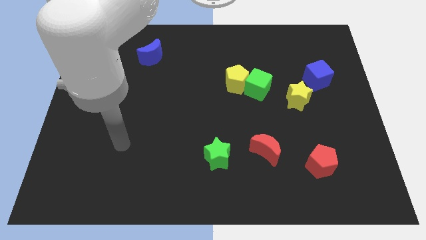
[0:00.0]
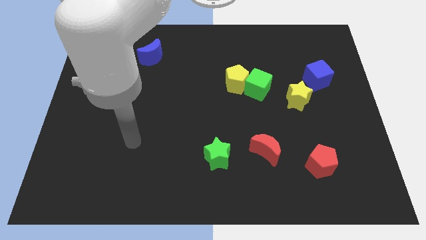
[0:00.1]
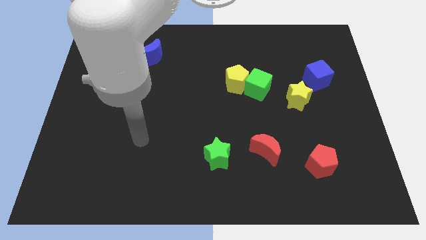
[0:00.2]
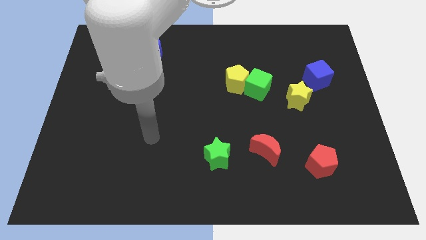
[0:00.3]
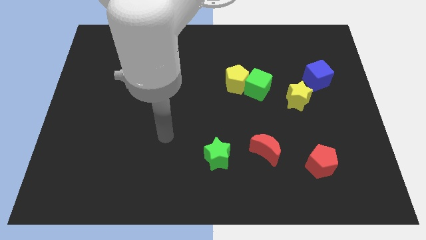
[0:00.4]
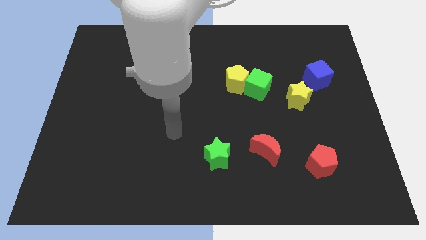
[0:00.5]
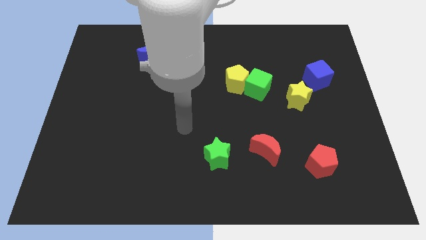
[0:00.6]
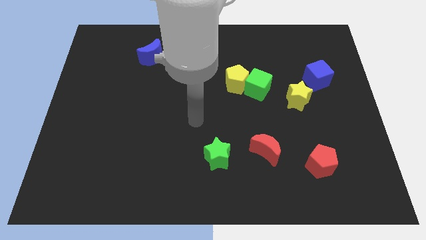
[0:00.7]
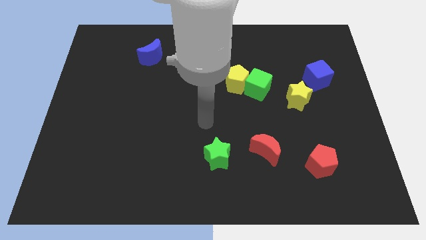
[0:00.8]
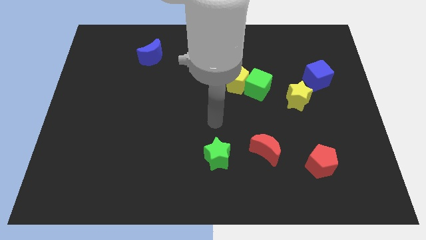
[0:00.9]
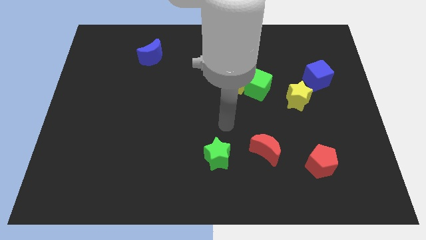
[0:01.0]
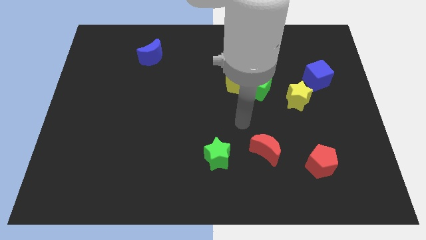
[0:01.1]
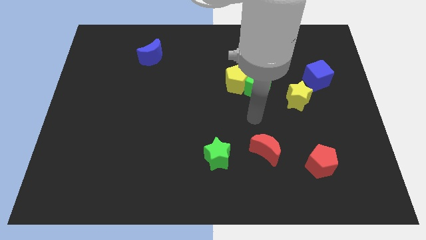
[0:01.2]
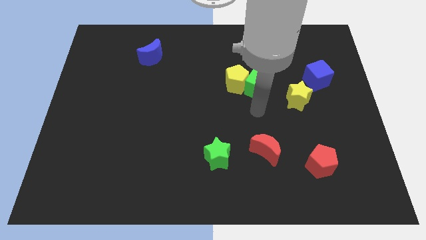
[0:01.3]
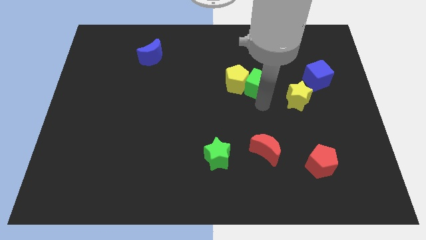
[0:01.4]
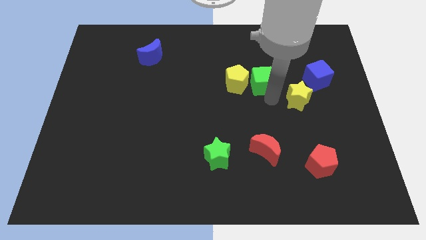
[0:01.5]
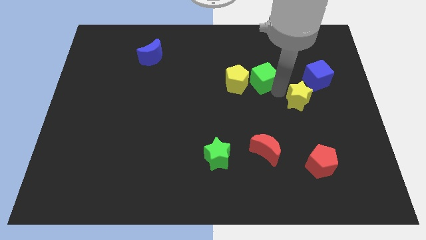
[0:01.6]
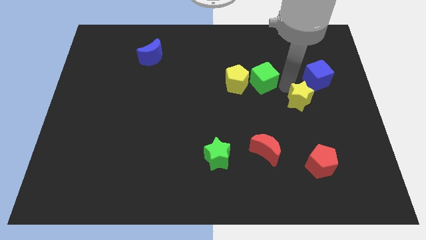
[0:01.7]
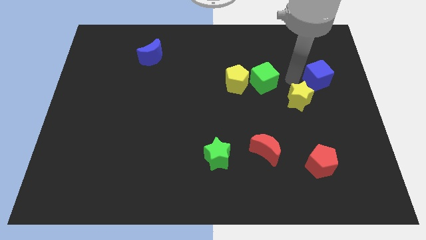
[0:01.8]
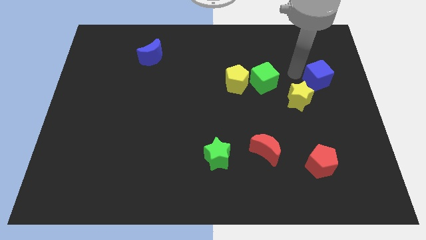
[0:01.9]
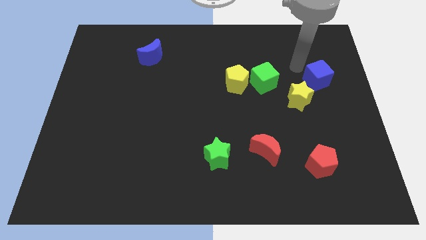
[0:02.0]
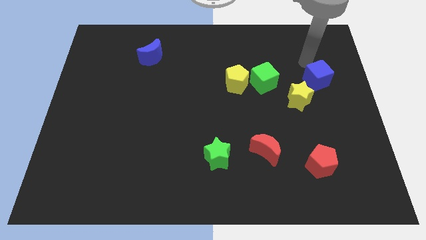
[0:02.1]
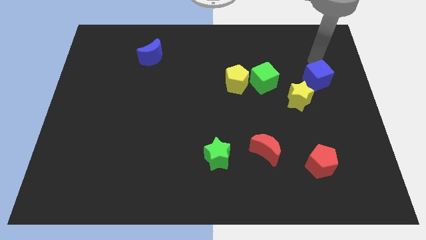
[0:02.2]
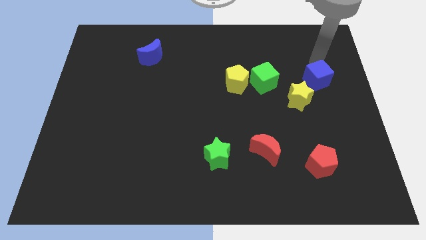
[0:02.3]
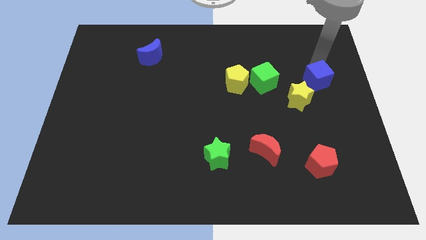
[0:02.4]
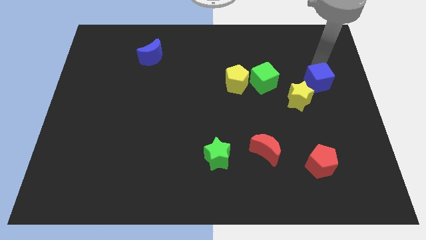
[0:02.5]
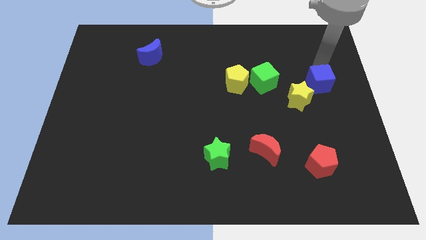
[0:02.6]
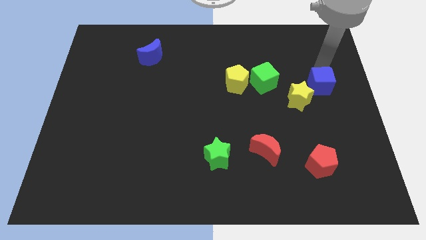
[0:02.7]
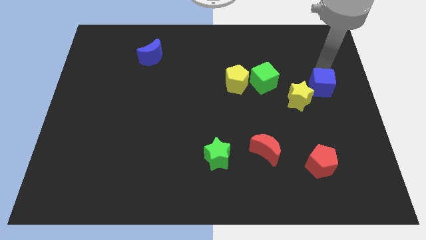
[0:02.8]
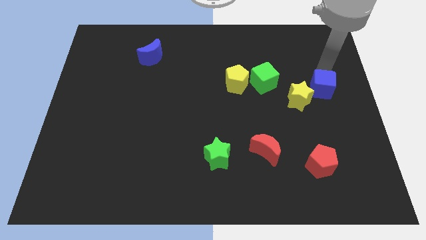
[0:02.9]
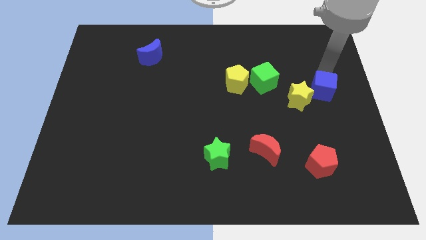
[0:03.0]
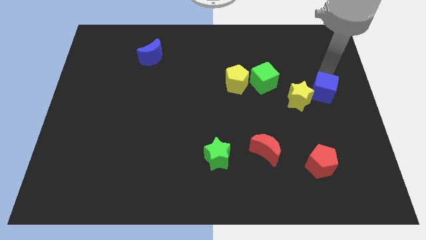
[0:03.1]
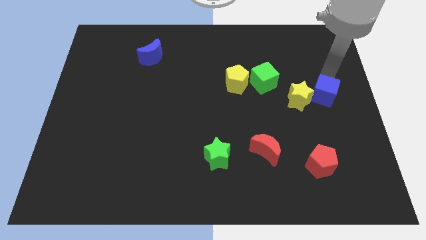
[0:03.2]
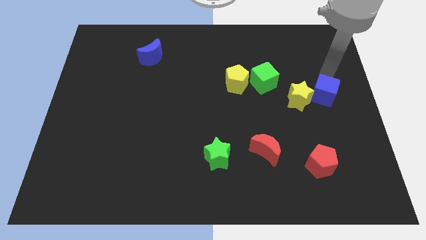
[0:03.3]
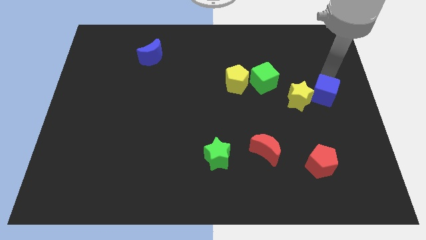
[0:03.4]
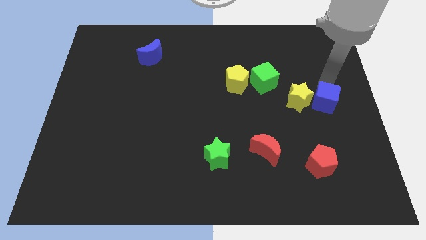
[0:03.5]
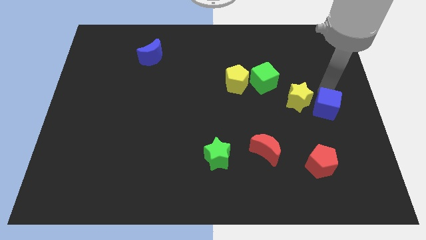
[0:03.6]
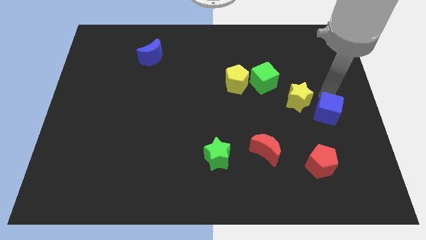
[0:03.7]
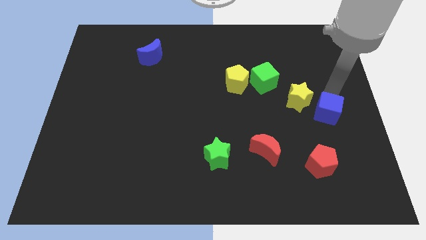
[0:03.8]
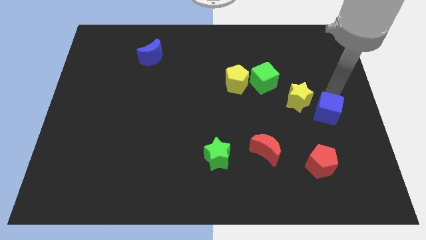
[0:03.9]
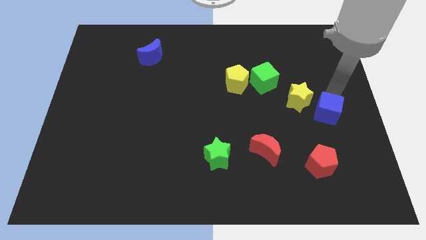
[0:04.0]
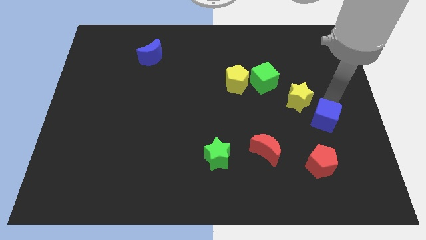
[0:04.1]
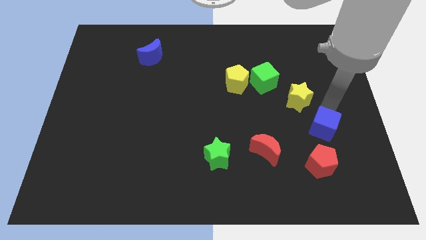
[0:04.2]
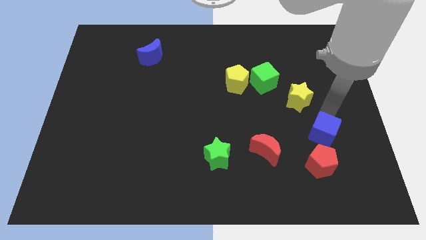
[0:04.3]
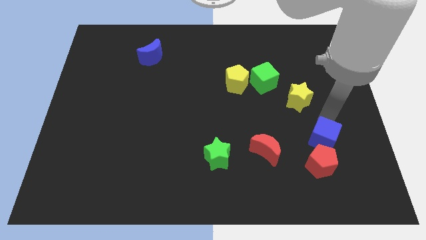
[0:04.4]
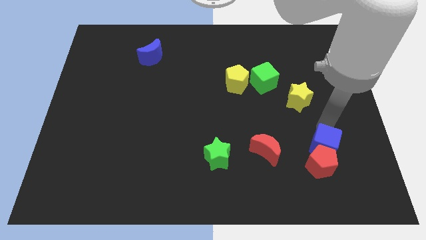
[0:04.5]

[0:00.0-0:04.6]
put the blue cube next to the red pentagon

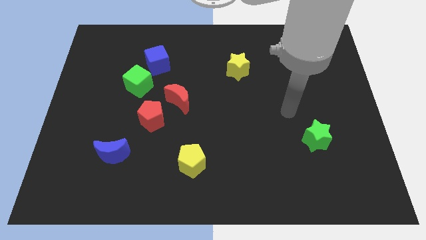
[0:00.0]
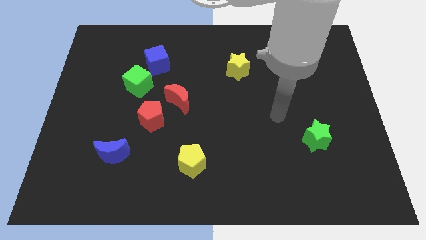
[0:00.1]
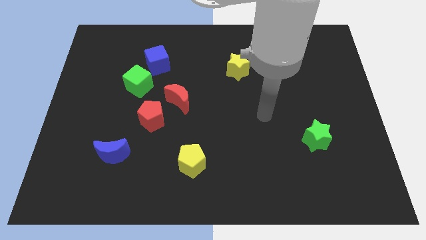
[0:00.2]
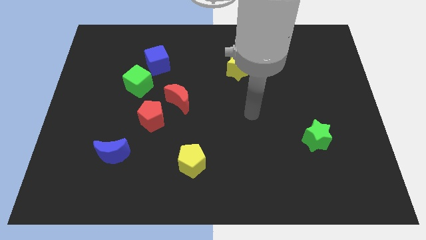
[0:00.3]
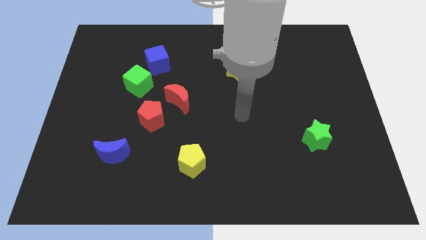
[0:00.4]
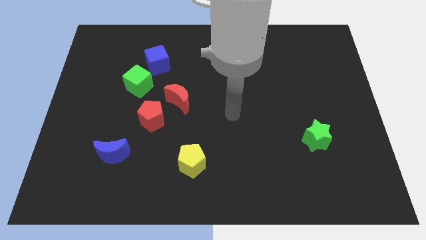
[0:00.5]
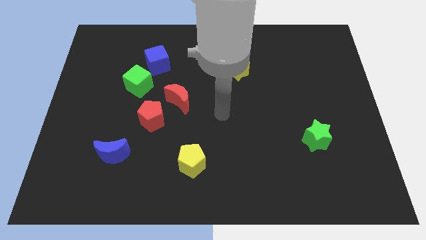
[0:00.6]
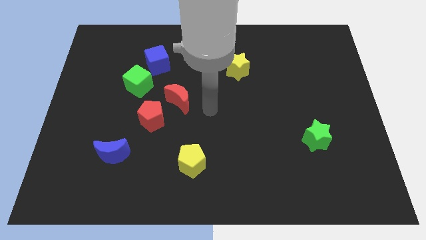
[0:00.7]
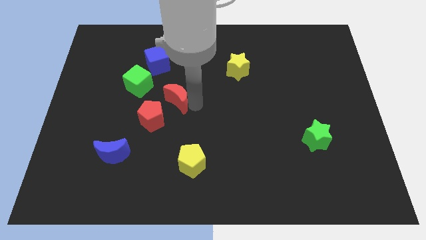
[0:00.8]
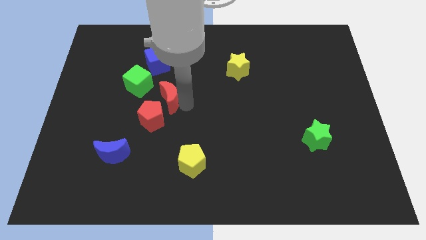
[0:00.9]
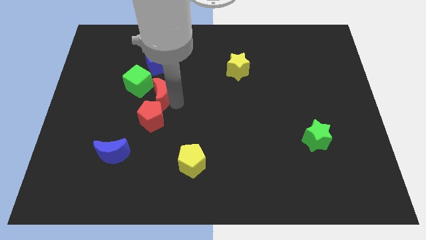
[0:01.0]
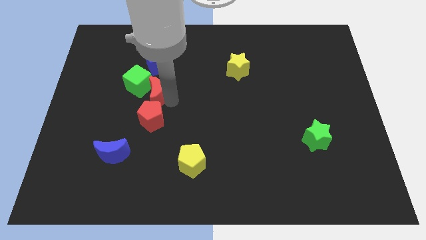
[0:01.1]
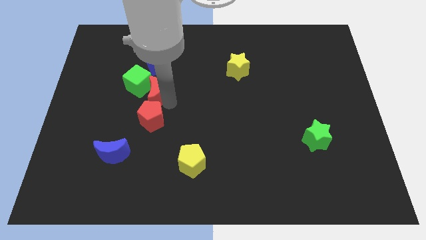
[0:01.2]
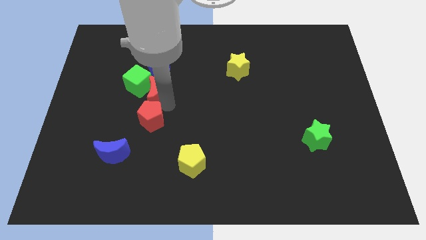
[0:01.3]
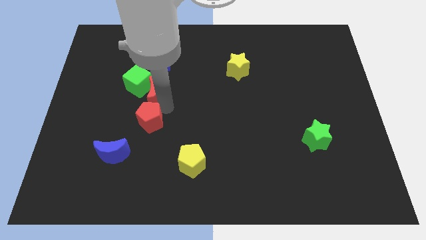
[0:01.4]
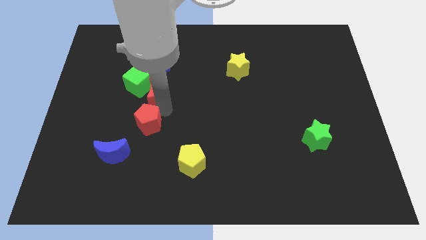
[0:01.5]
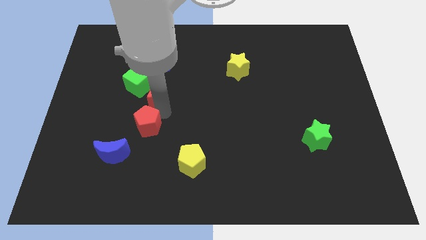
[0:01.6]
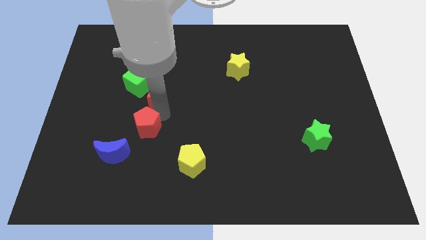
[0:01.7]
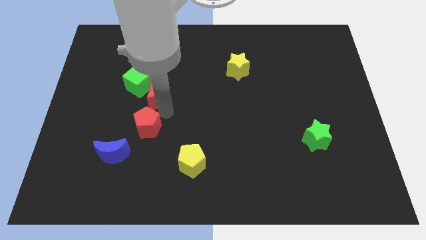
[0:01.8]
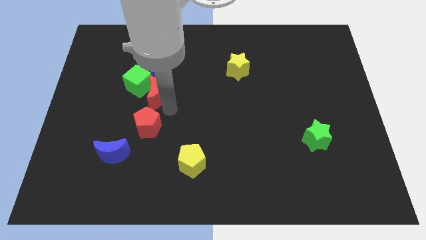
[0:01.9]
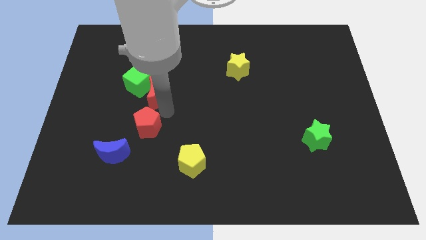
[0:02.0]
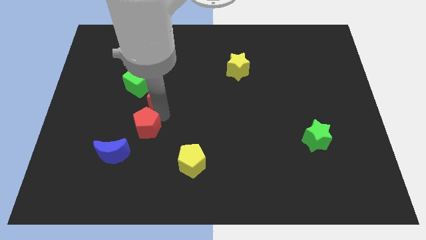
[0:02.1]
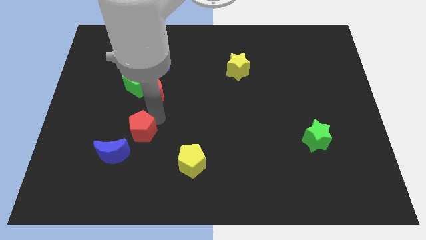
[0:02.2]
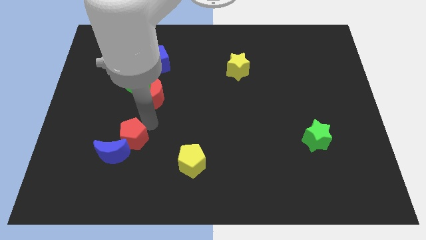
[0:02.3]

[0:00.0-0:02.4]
slide the red pentagon close to the blue moon

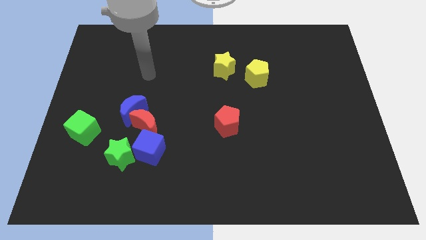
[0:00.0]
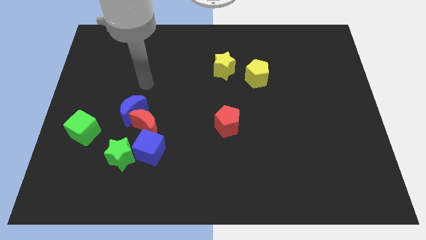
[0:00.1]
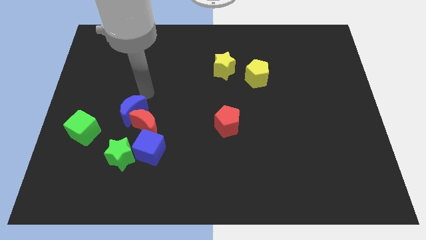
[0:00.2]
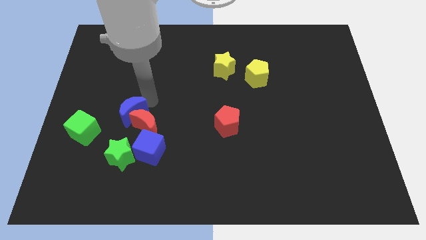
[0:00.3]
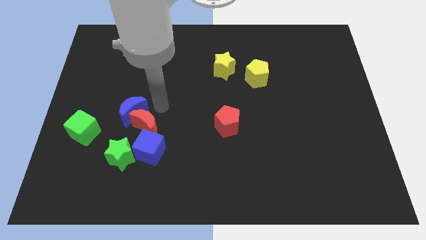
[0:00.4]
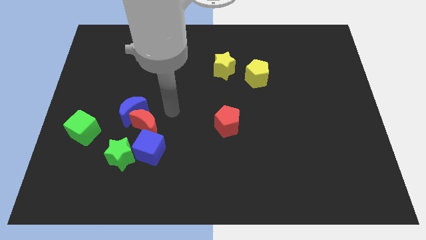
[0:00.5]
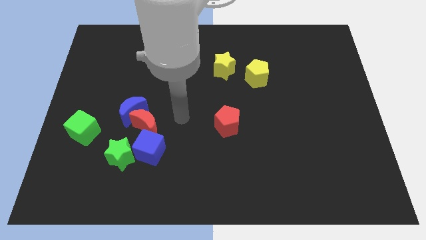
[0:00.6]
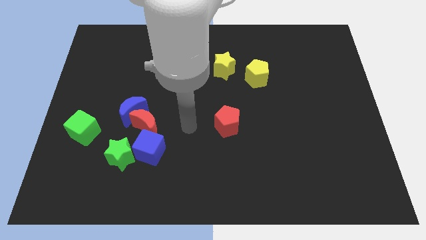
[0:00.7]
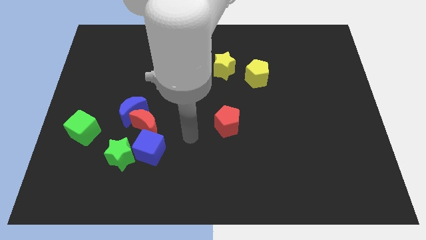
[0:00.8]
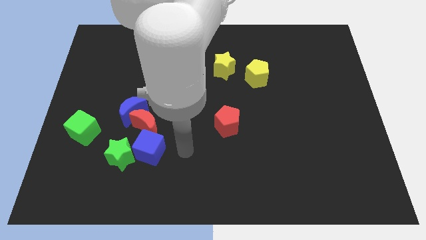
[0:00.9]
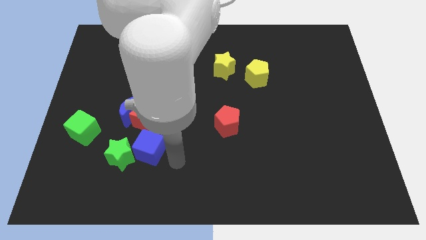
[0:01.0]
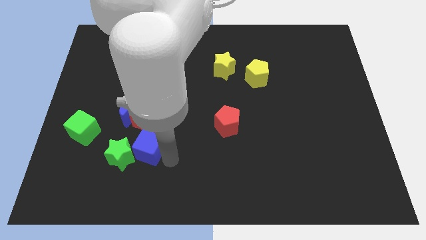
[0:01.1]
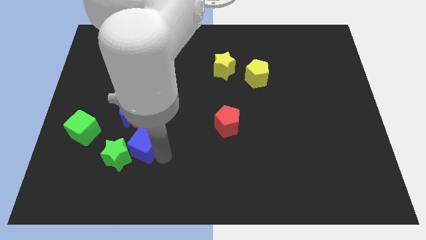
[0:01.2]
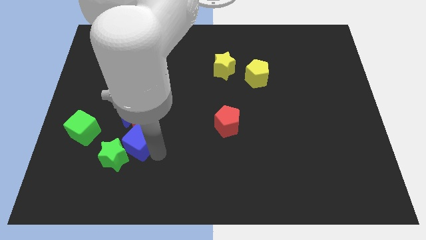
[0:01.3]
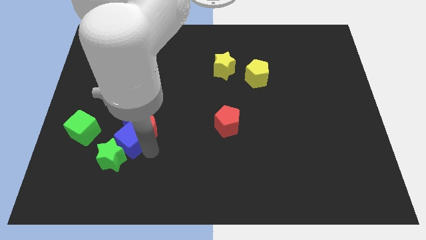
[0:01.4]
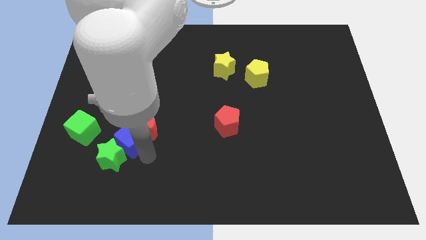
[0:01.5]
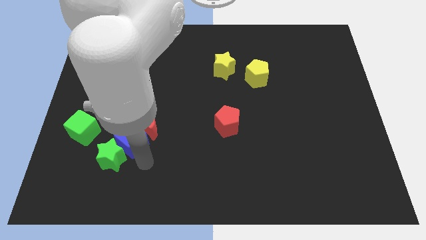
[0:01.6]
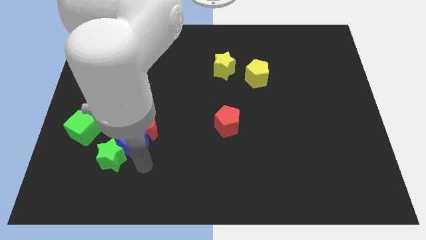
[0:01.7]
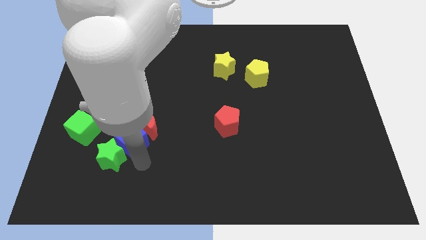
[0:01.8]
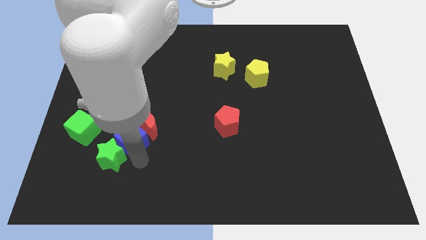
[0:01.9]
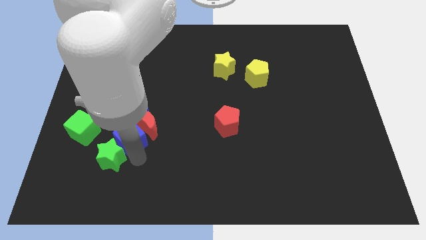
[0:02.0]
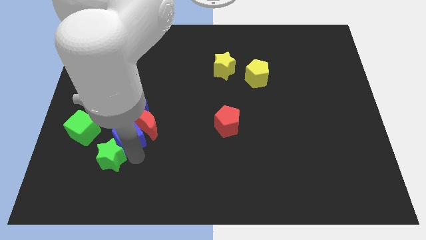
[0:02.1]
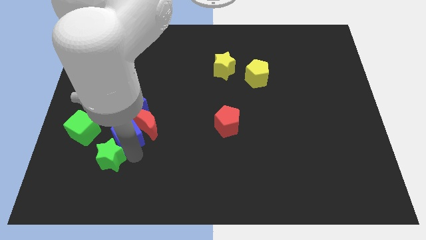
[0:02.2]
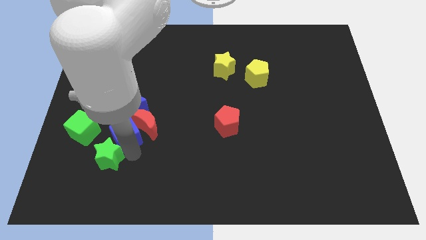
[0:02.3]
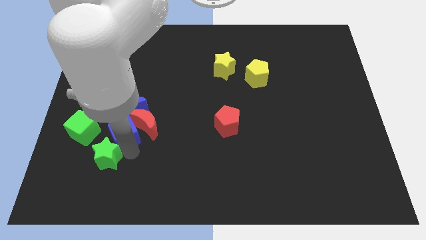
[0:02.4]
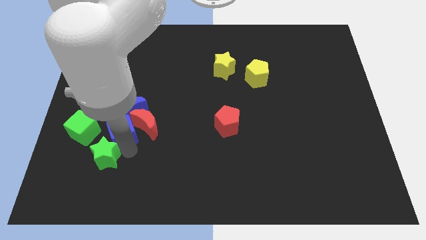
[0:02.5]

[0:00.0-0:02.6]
push the blue cube to the blue moon
